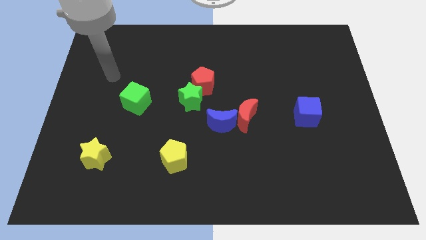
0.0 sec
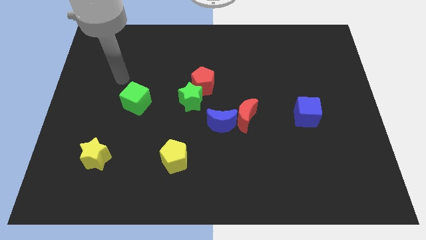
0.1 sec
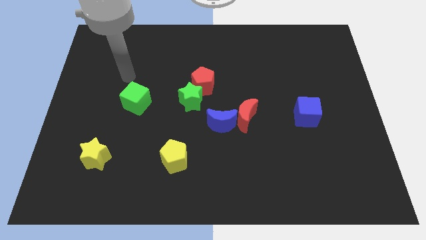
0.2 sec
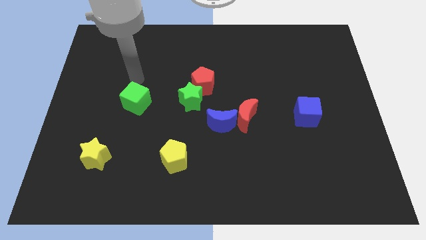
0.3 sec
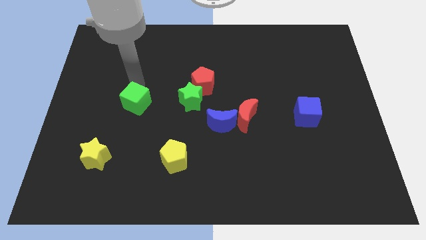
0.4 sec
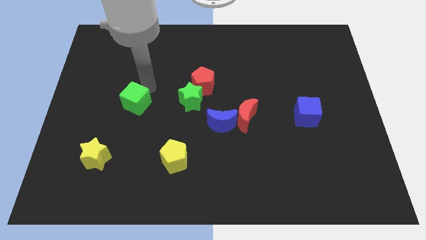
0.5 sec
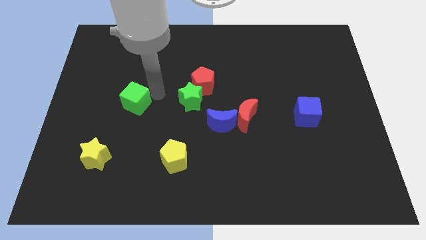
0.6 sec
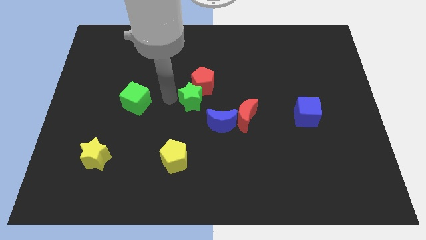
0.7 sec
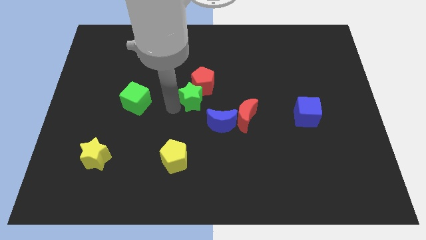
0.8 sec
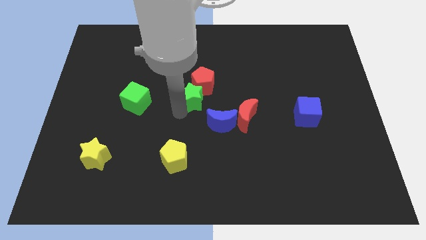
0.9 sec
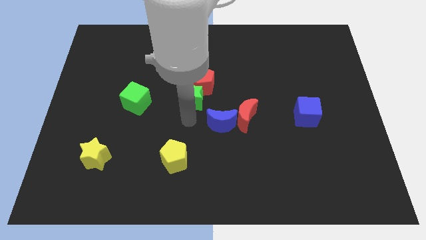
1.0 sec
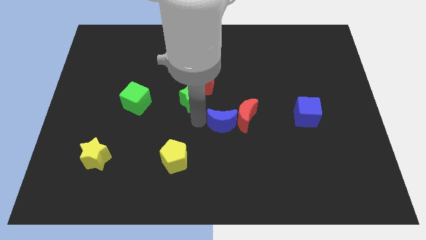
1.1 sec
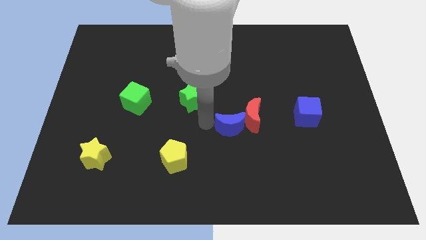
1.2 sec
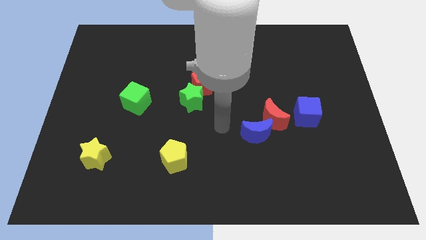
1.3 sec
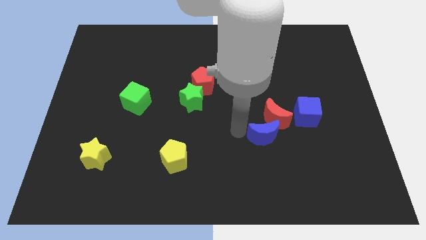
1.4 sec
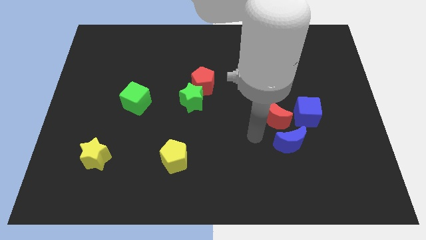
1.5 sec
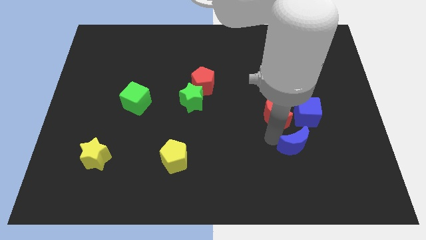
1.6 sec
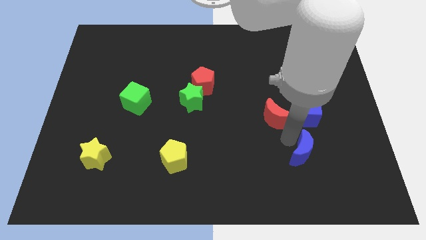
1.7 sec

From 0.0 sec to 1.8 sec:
move the red moon away from the blue moon

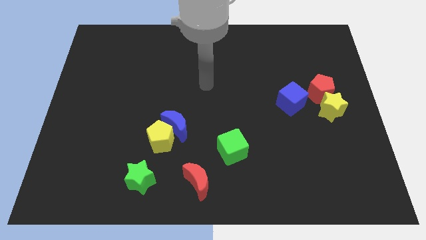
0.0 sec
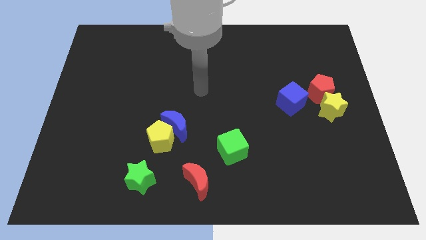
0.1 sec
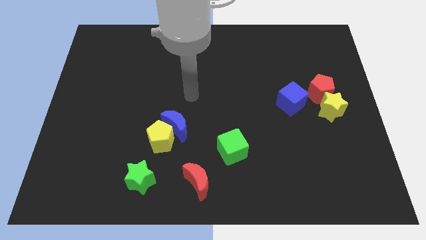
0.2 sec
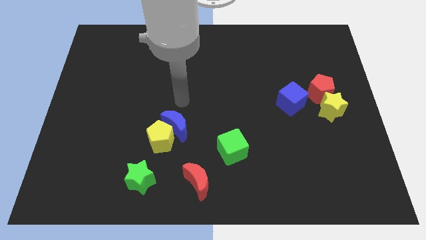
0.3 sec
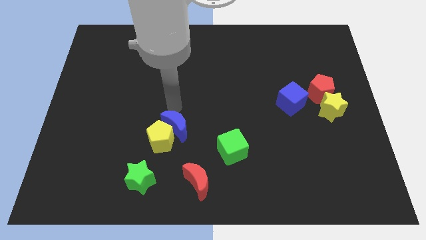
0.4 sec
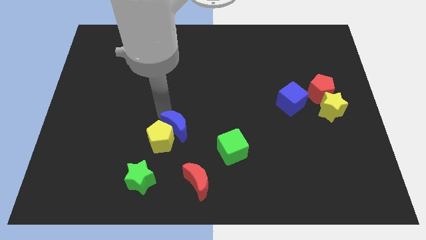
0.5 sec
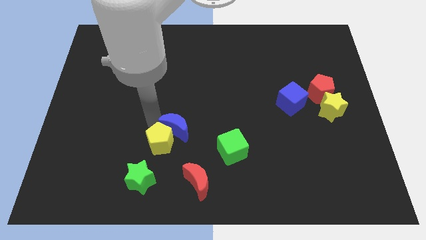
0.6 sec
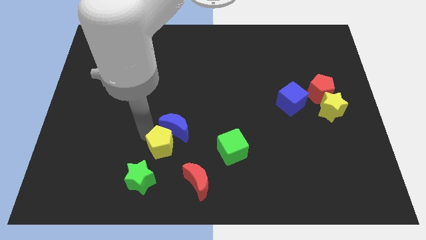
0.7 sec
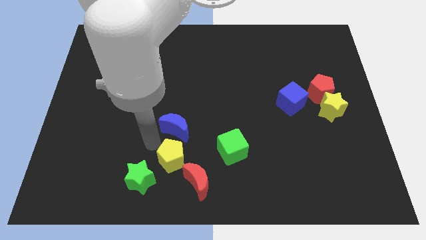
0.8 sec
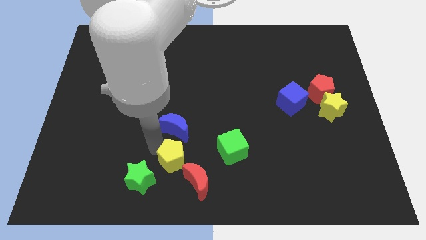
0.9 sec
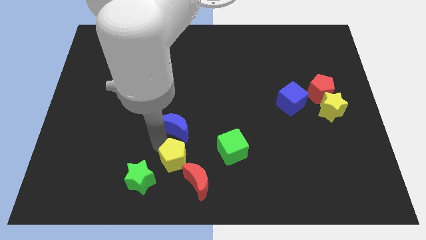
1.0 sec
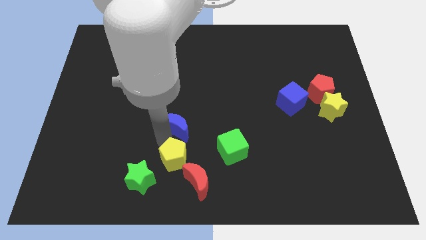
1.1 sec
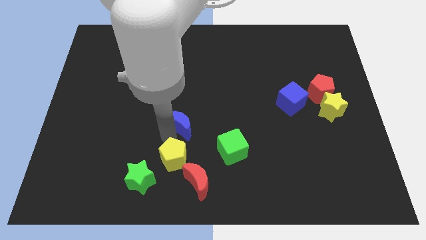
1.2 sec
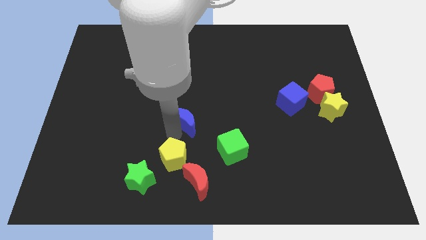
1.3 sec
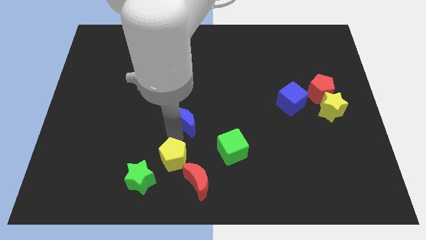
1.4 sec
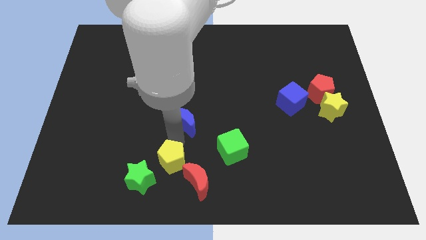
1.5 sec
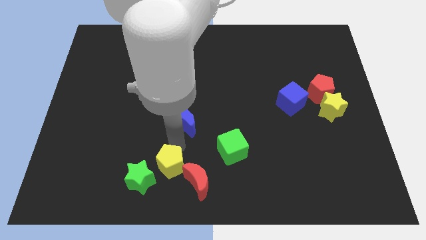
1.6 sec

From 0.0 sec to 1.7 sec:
pull the blue moon apart from the yellow pentagon

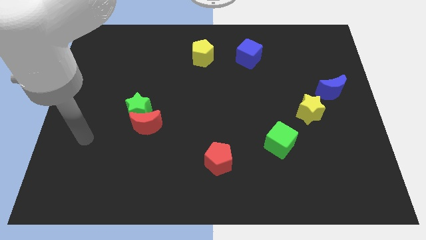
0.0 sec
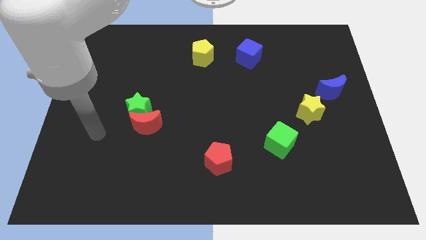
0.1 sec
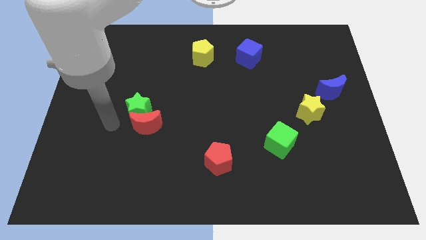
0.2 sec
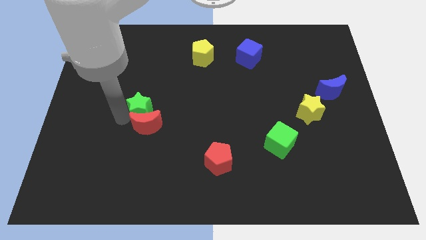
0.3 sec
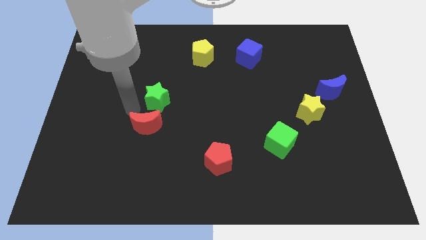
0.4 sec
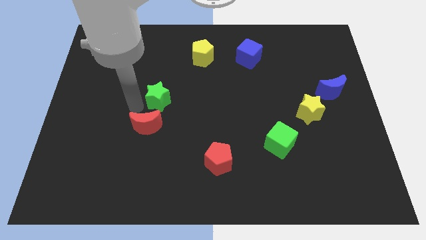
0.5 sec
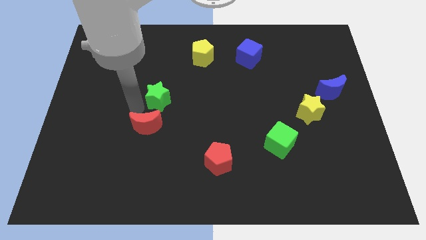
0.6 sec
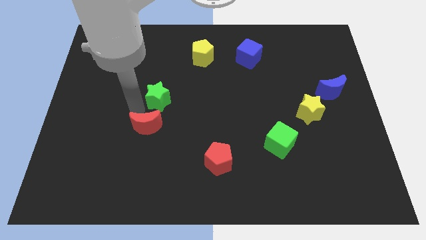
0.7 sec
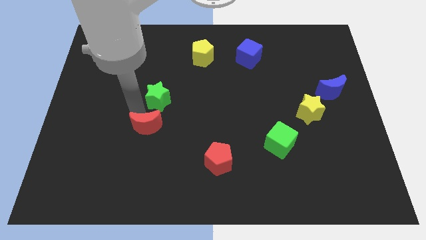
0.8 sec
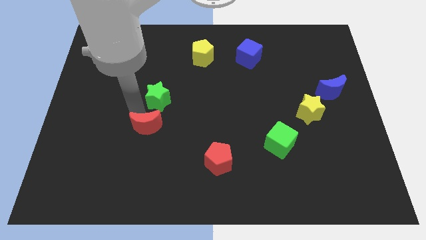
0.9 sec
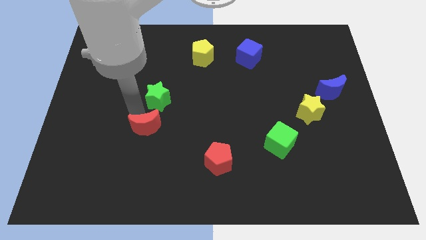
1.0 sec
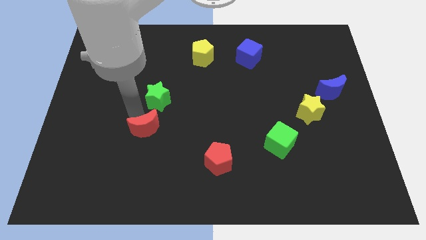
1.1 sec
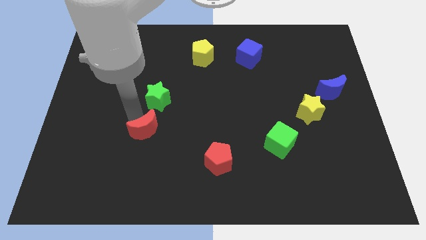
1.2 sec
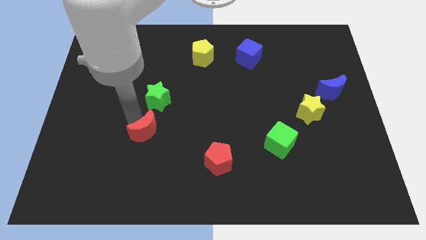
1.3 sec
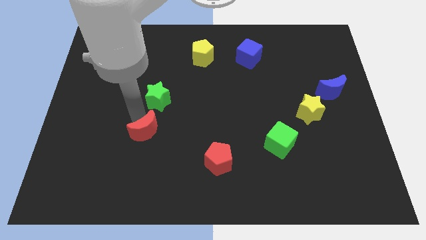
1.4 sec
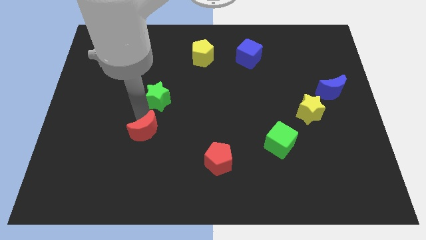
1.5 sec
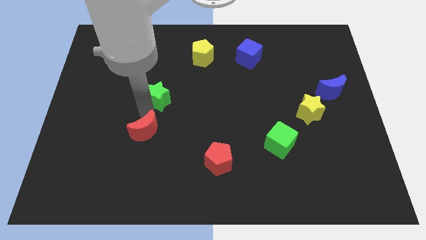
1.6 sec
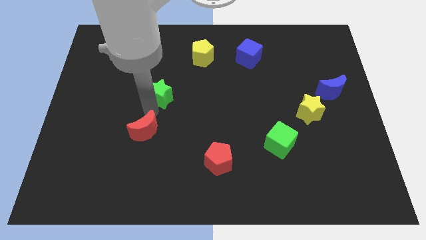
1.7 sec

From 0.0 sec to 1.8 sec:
separate the red moon from the green star

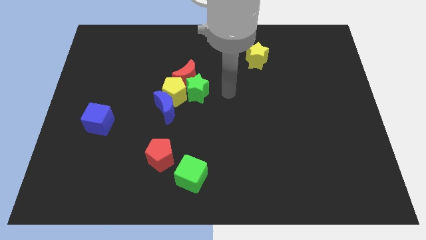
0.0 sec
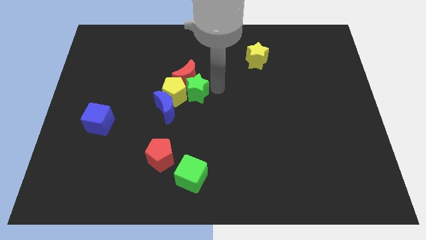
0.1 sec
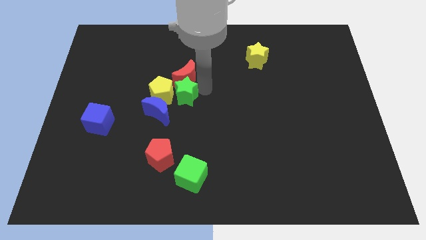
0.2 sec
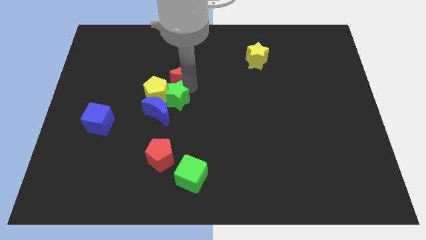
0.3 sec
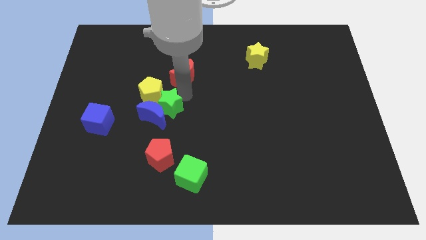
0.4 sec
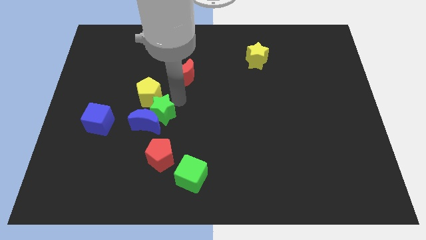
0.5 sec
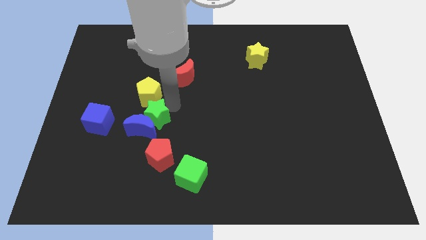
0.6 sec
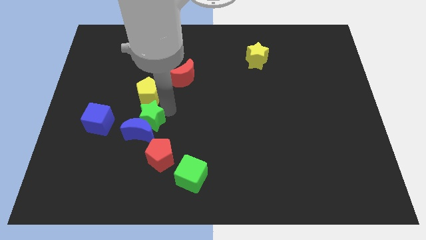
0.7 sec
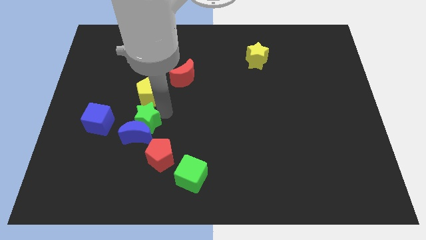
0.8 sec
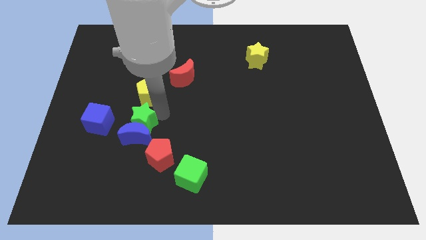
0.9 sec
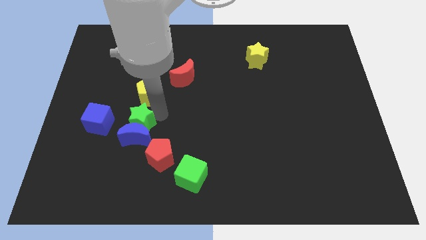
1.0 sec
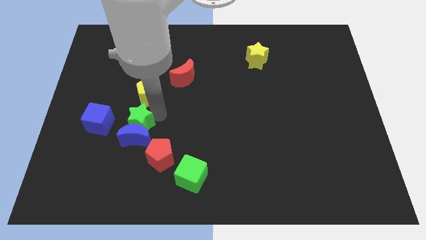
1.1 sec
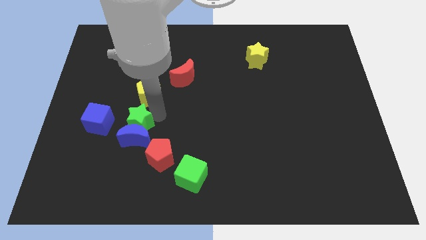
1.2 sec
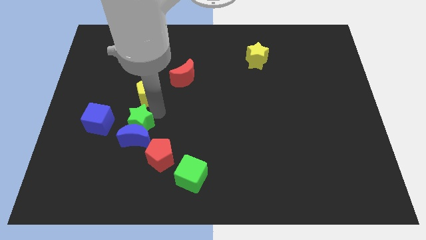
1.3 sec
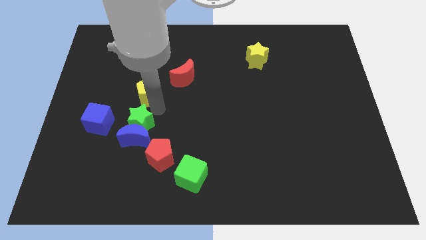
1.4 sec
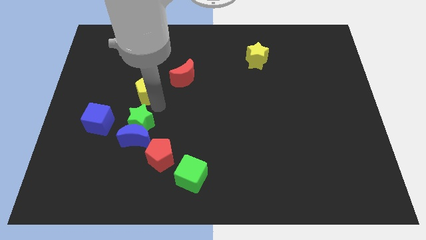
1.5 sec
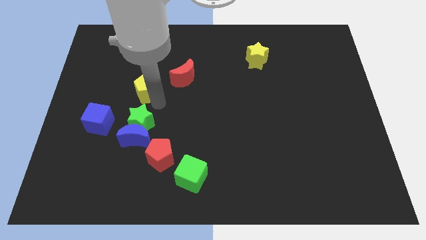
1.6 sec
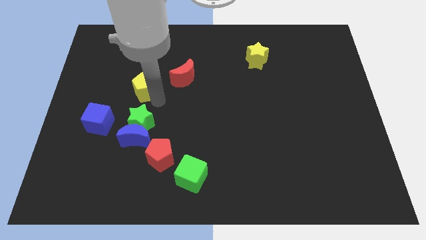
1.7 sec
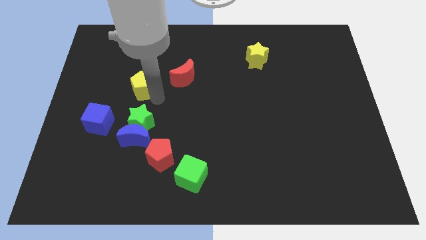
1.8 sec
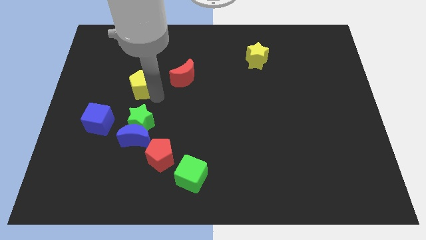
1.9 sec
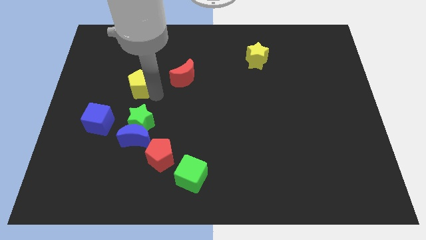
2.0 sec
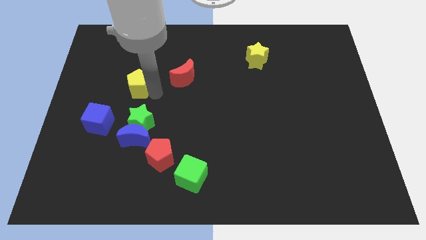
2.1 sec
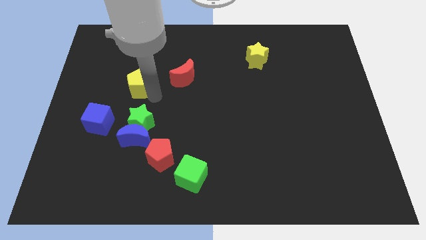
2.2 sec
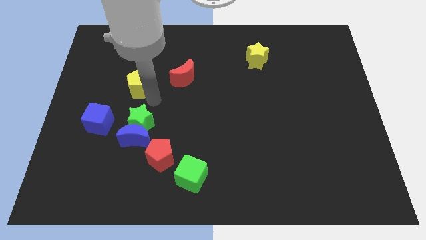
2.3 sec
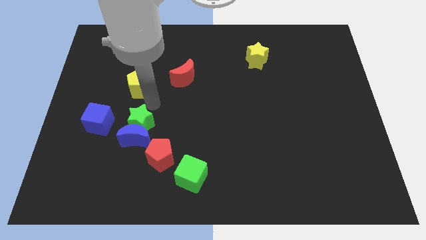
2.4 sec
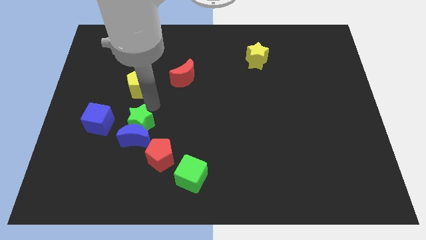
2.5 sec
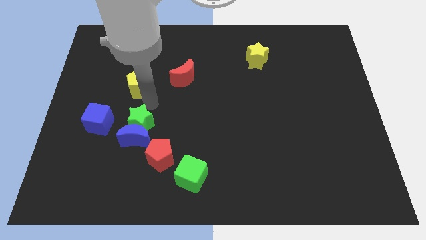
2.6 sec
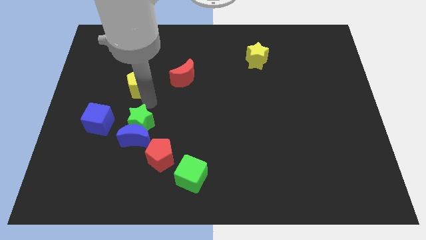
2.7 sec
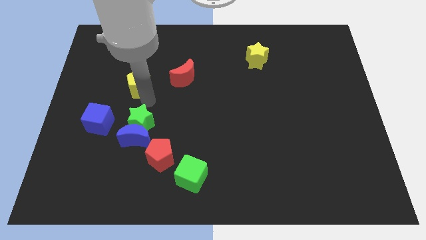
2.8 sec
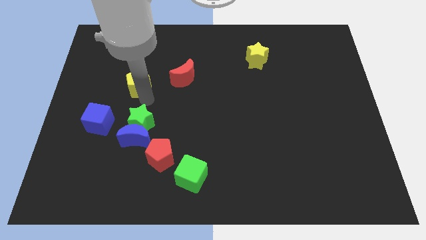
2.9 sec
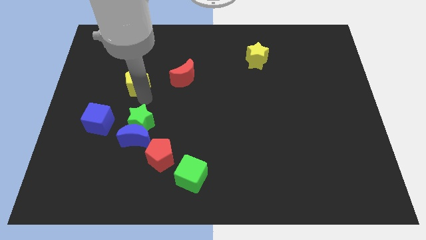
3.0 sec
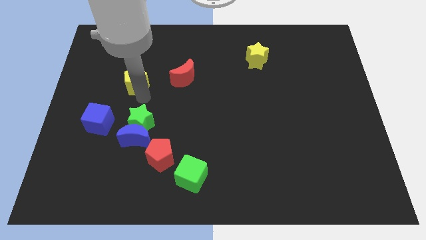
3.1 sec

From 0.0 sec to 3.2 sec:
separate the yellow pentagon from the blue moon, green star, and red moon

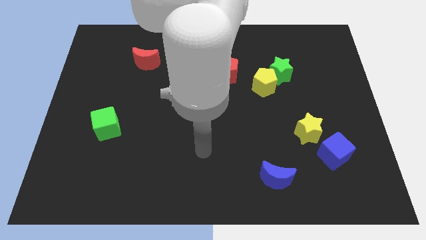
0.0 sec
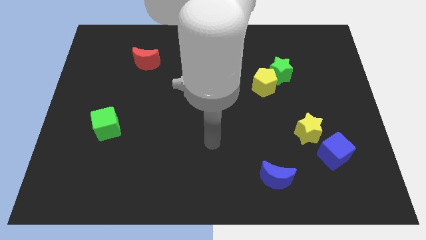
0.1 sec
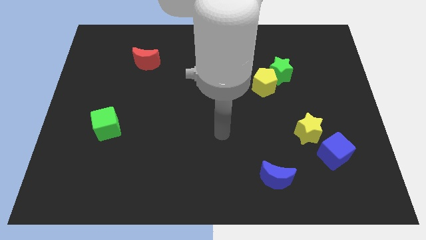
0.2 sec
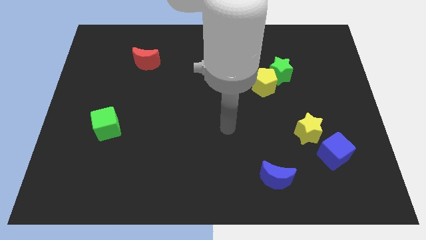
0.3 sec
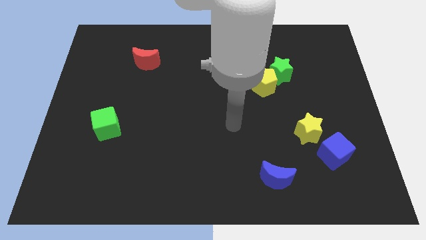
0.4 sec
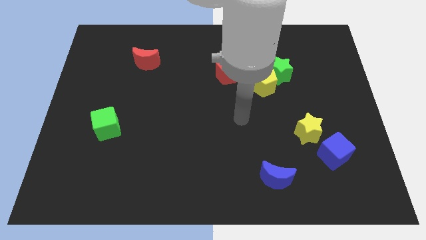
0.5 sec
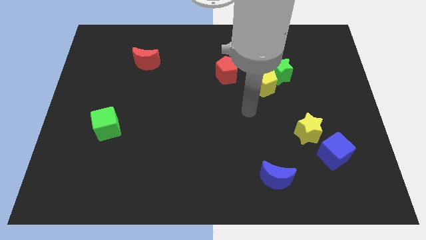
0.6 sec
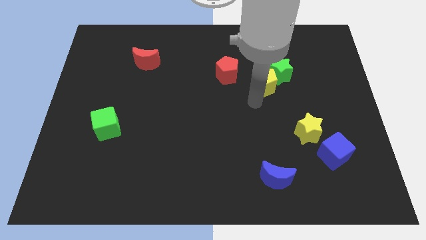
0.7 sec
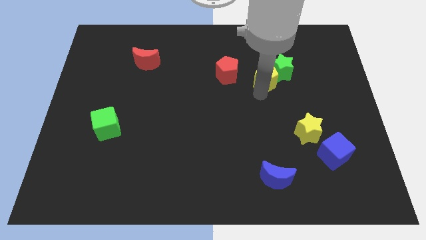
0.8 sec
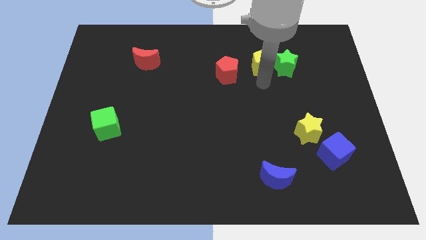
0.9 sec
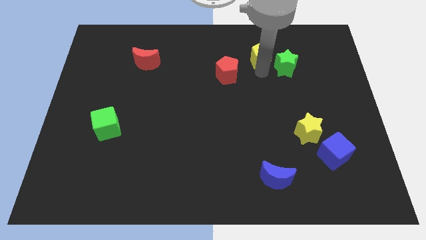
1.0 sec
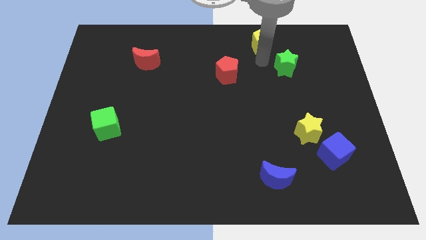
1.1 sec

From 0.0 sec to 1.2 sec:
pull the green star apart from the yellow pentagon
